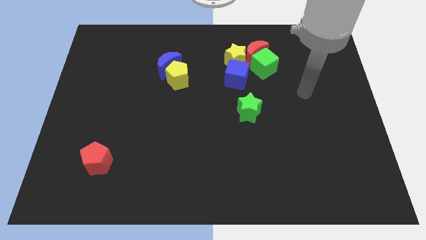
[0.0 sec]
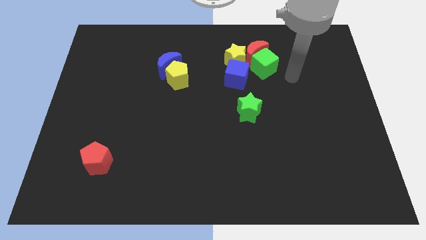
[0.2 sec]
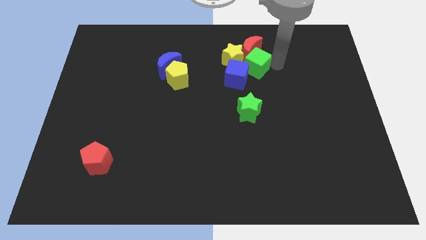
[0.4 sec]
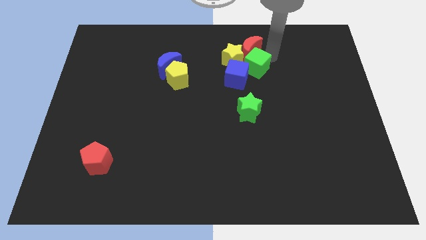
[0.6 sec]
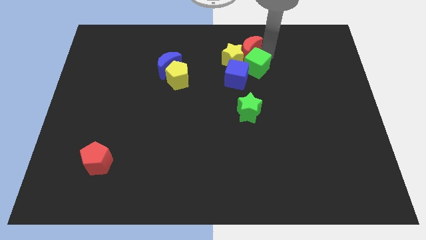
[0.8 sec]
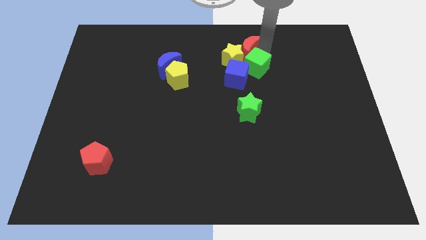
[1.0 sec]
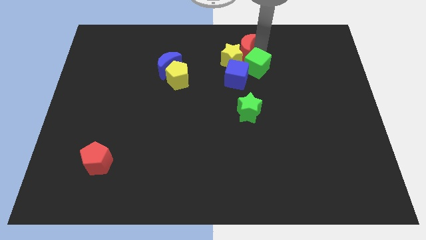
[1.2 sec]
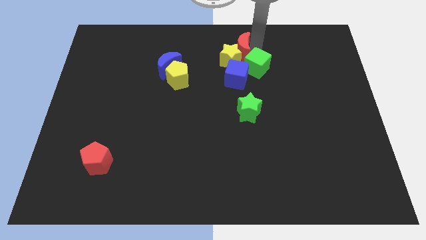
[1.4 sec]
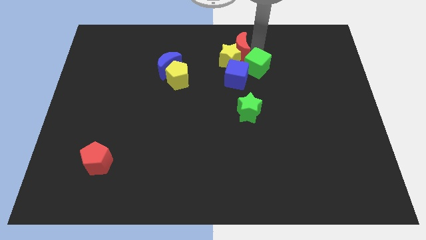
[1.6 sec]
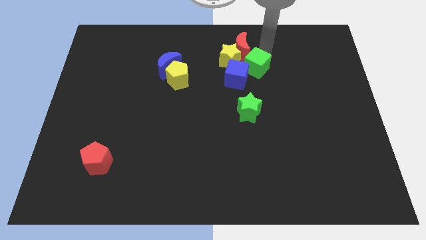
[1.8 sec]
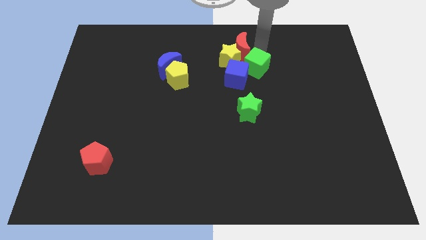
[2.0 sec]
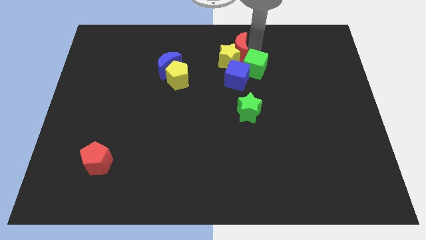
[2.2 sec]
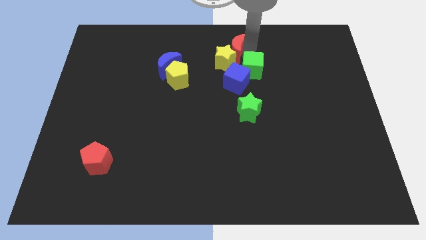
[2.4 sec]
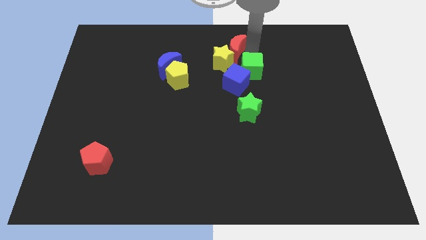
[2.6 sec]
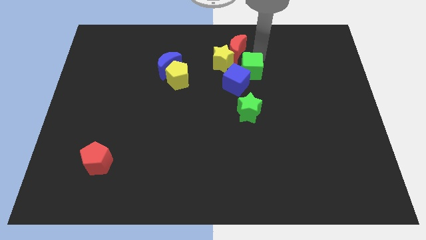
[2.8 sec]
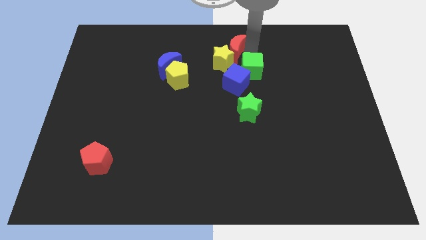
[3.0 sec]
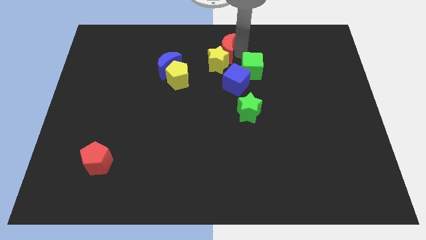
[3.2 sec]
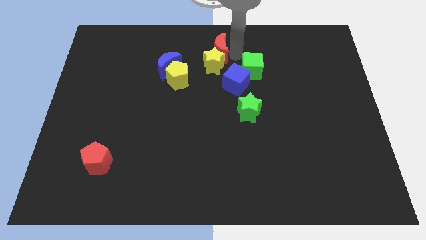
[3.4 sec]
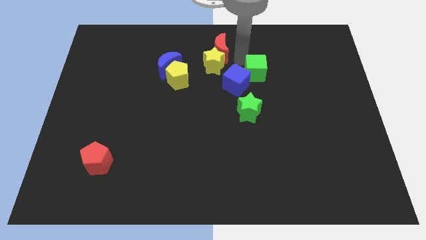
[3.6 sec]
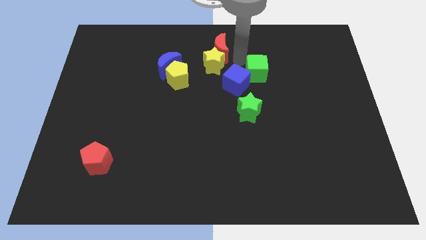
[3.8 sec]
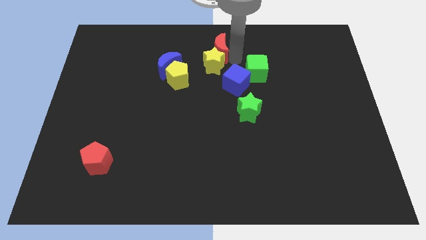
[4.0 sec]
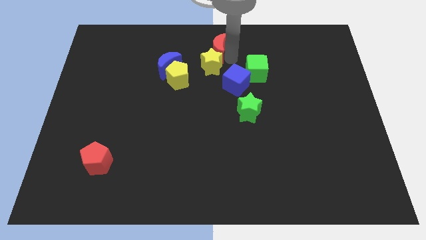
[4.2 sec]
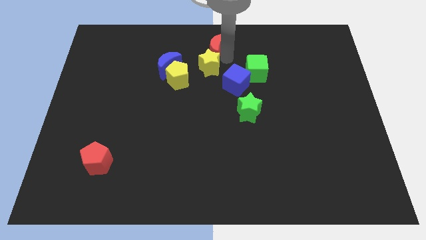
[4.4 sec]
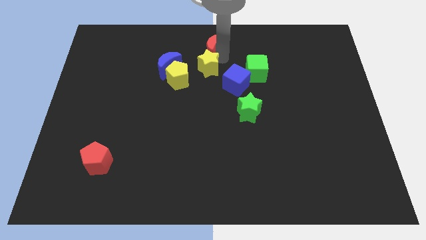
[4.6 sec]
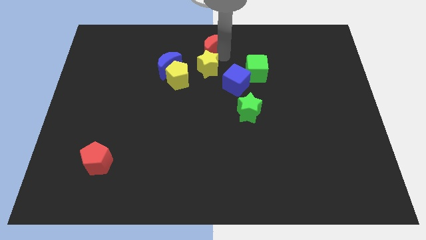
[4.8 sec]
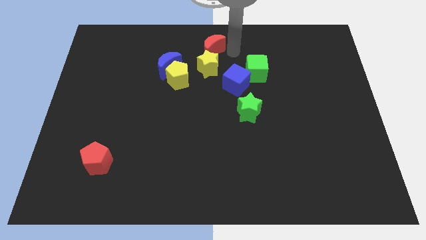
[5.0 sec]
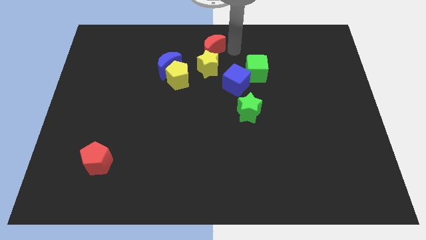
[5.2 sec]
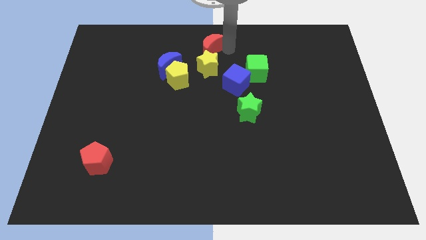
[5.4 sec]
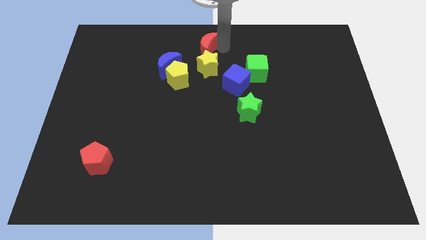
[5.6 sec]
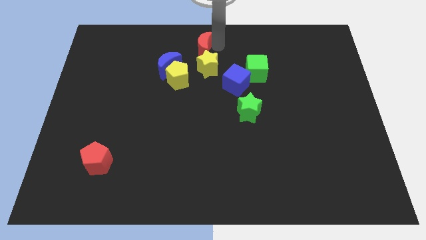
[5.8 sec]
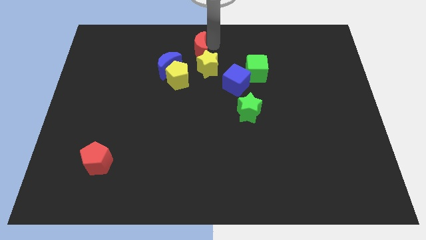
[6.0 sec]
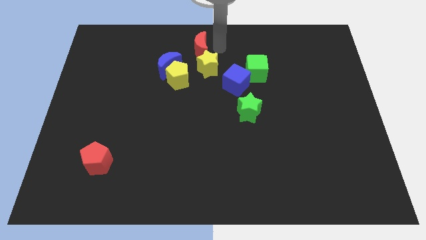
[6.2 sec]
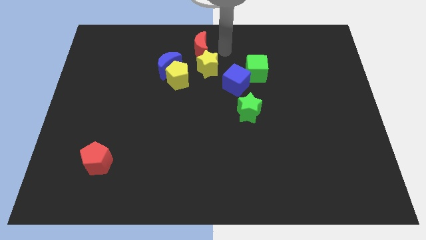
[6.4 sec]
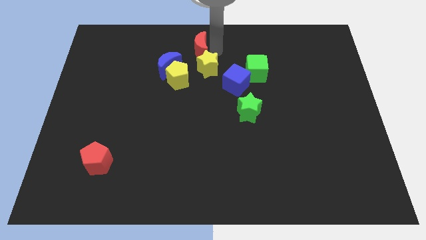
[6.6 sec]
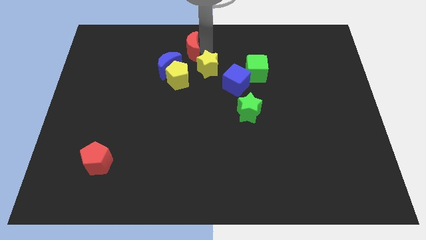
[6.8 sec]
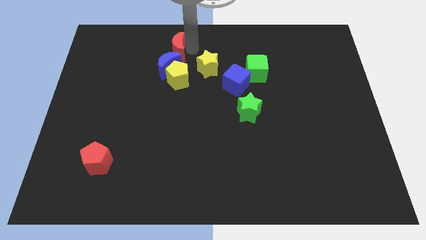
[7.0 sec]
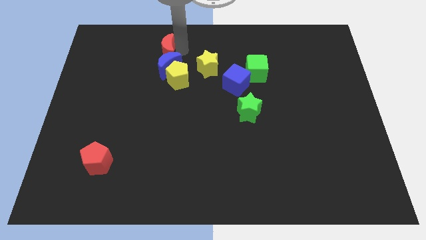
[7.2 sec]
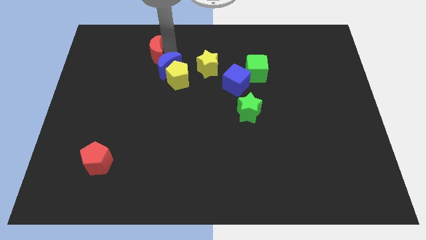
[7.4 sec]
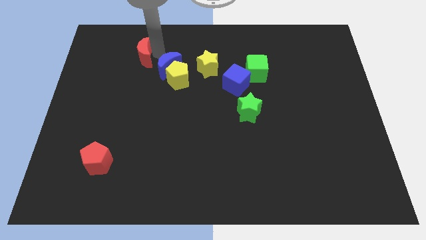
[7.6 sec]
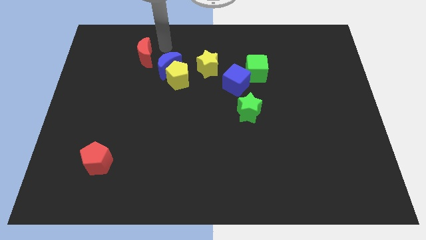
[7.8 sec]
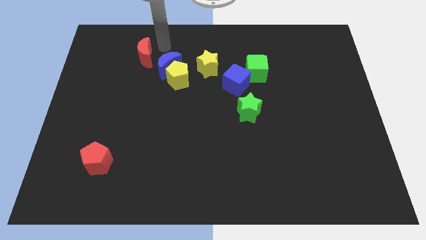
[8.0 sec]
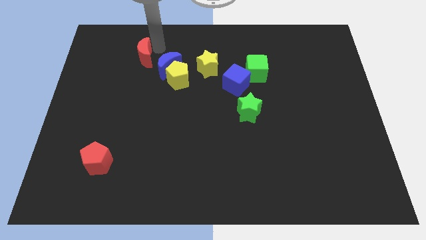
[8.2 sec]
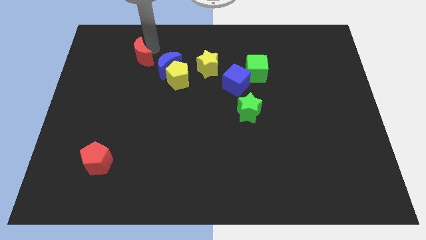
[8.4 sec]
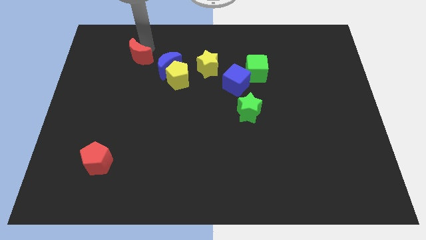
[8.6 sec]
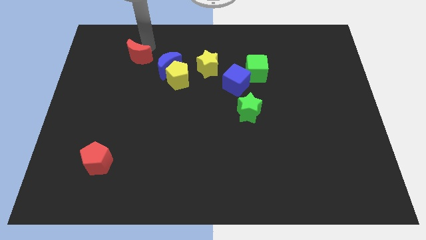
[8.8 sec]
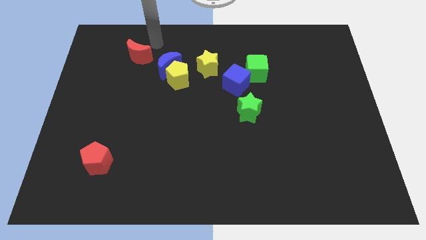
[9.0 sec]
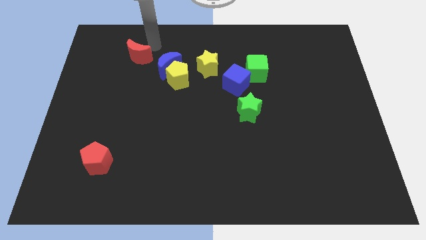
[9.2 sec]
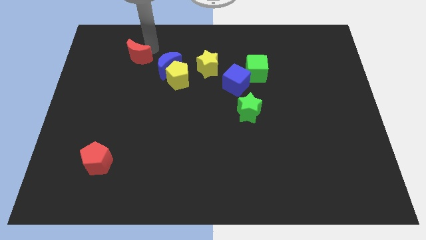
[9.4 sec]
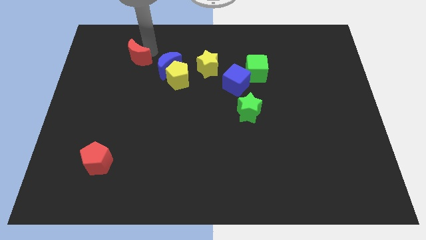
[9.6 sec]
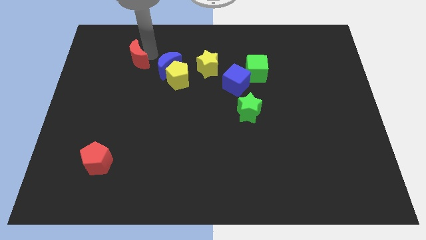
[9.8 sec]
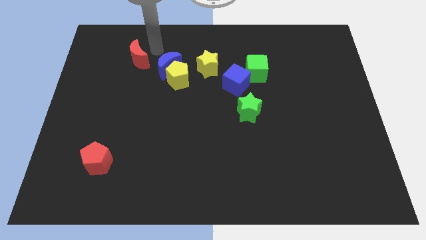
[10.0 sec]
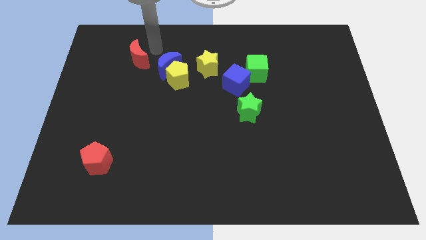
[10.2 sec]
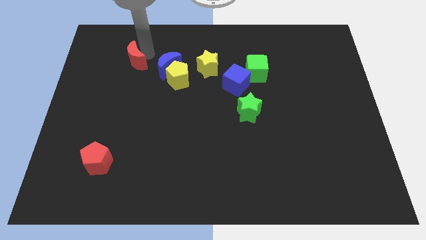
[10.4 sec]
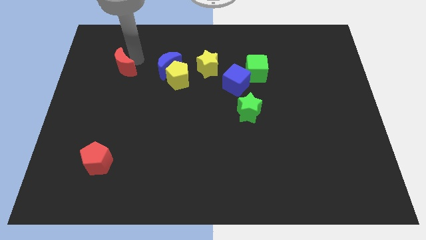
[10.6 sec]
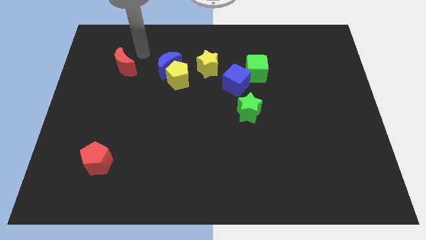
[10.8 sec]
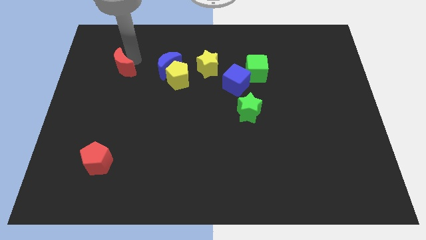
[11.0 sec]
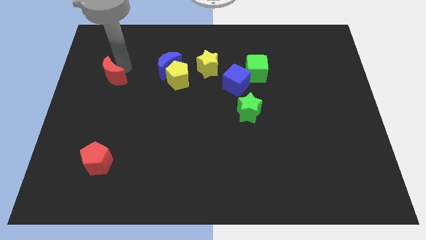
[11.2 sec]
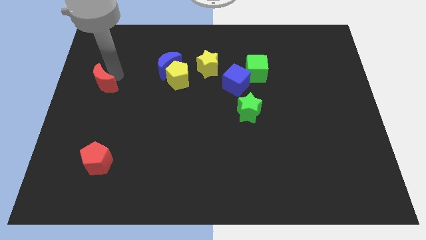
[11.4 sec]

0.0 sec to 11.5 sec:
put the red moon to the left side of the board

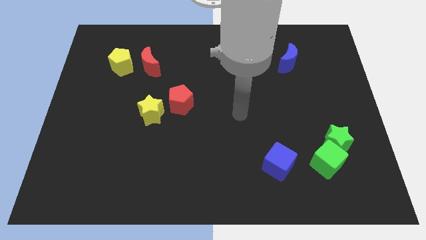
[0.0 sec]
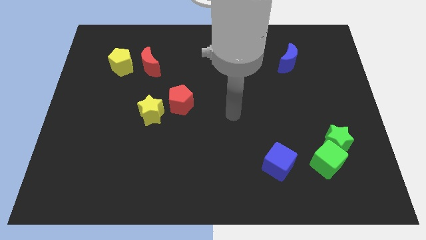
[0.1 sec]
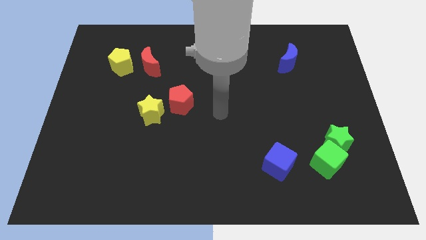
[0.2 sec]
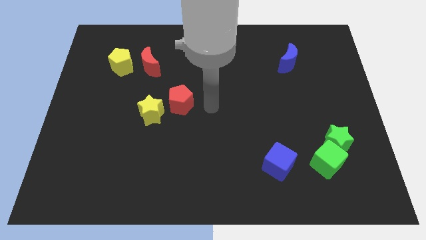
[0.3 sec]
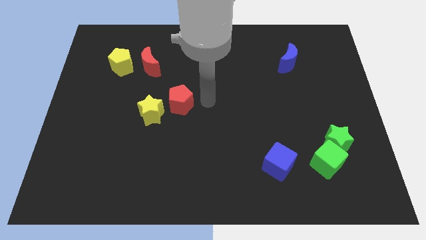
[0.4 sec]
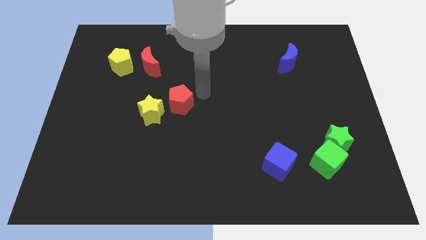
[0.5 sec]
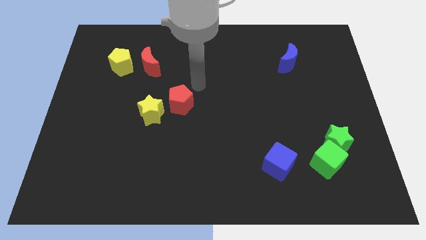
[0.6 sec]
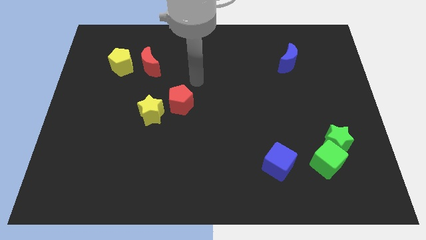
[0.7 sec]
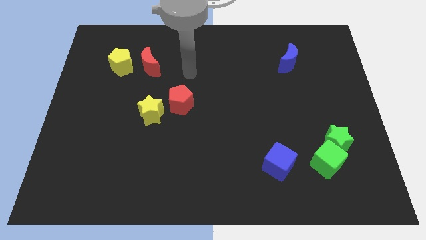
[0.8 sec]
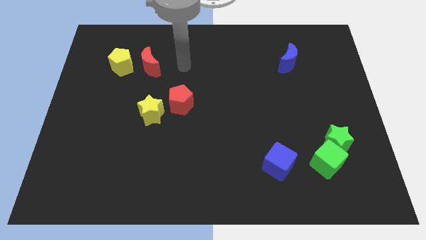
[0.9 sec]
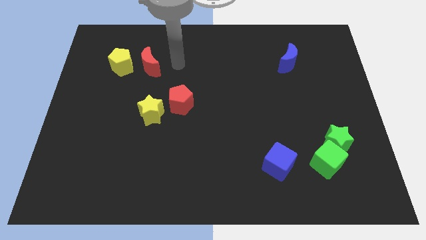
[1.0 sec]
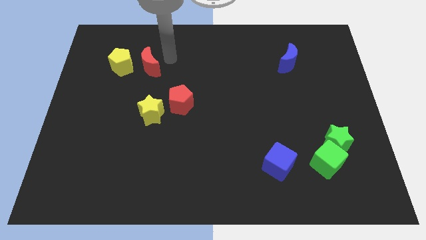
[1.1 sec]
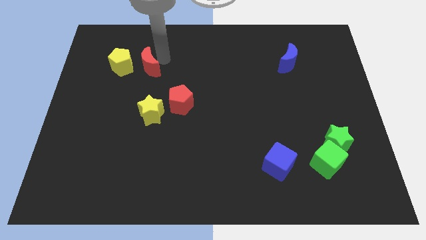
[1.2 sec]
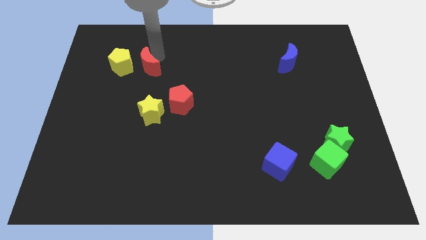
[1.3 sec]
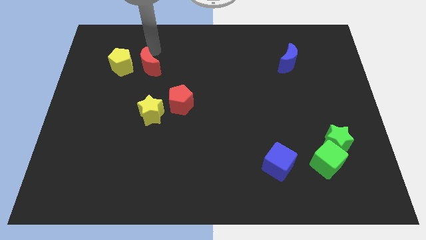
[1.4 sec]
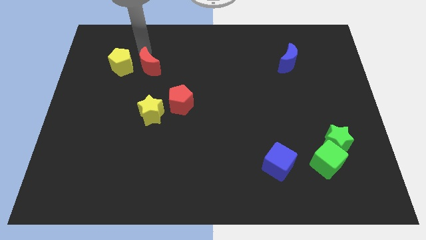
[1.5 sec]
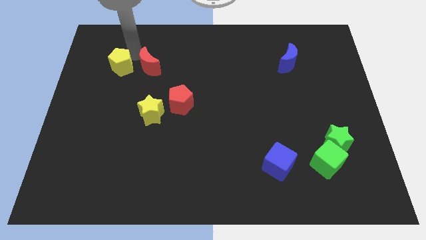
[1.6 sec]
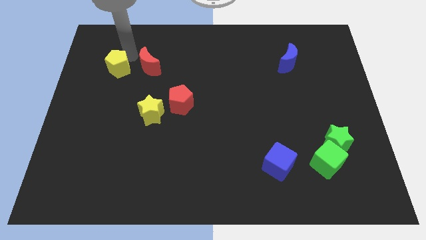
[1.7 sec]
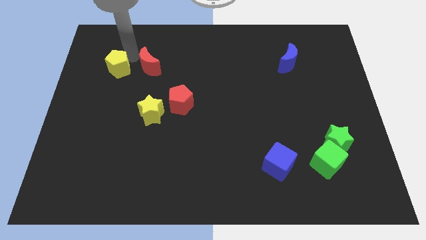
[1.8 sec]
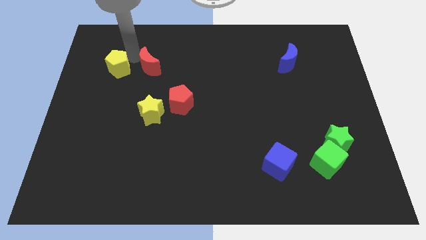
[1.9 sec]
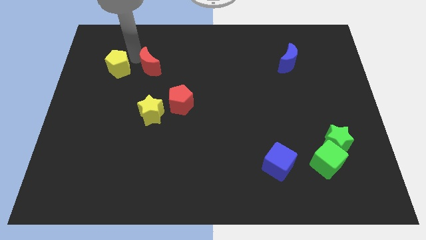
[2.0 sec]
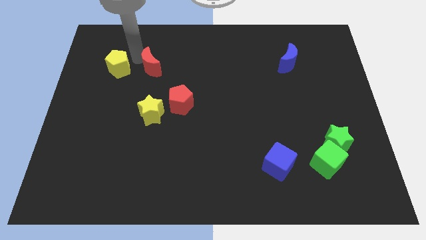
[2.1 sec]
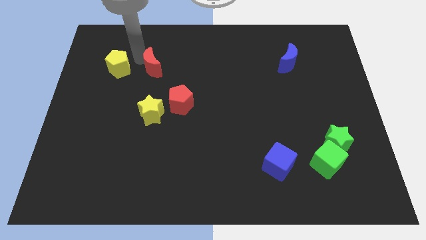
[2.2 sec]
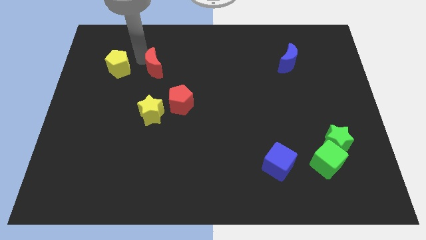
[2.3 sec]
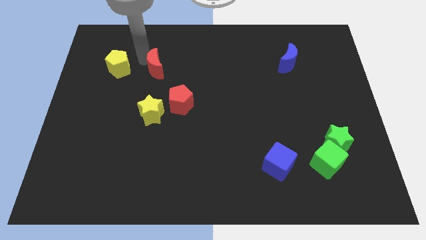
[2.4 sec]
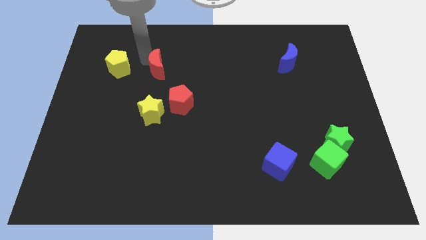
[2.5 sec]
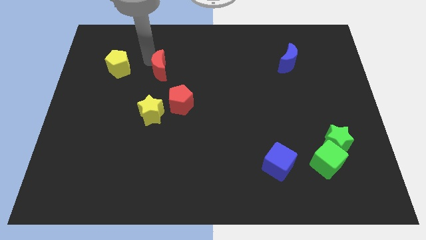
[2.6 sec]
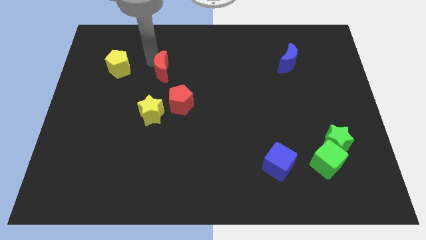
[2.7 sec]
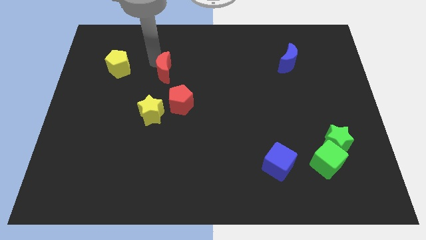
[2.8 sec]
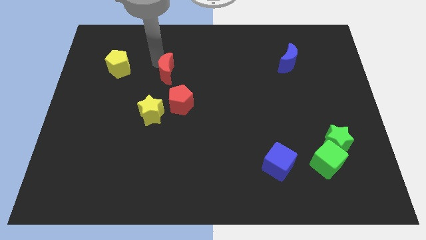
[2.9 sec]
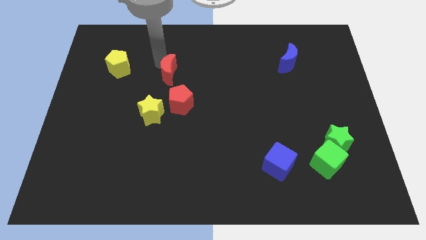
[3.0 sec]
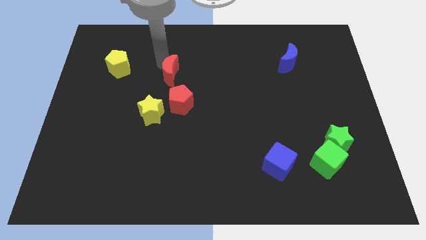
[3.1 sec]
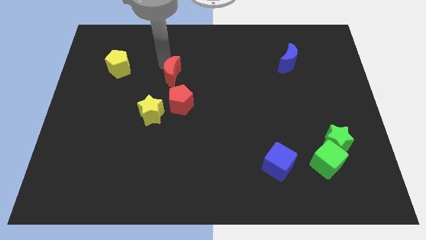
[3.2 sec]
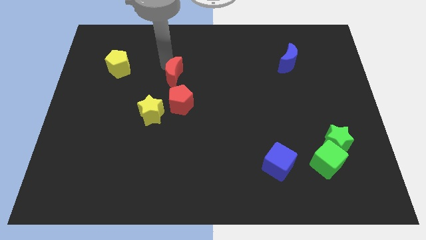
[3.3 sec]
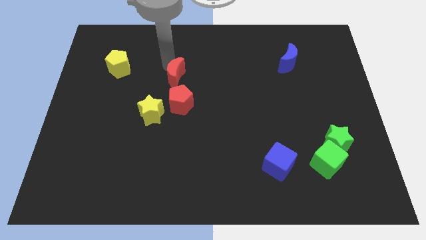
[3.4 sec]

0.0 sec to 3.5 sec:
push the red moon to the center
